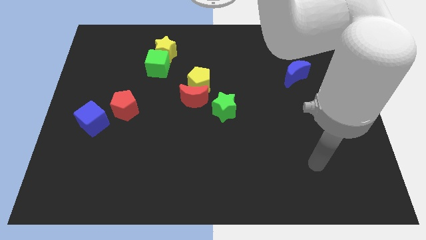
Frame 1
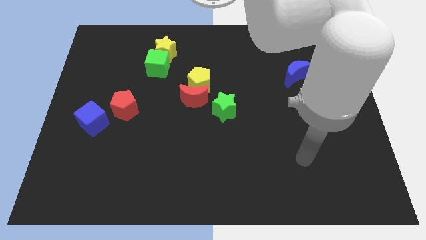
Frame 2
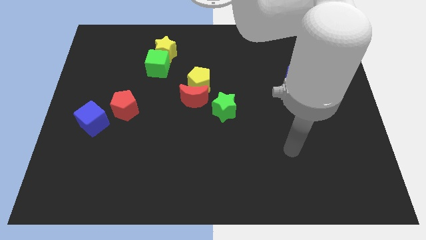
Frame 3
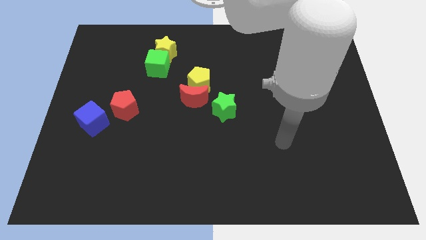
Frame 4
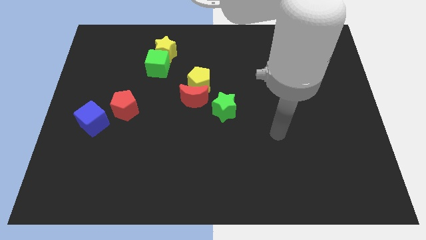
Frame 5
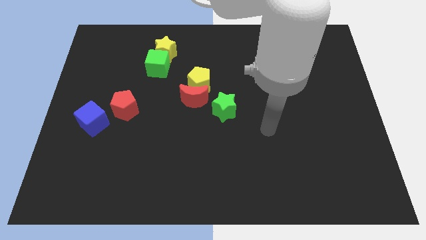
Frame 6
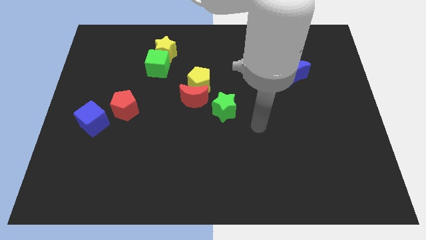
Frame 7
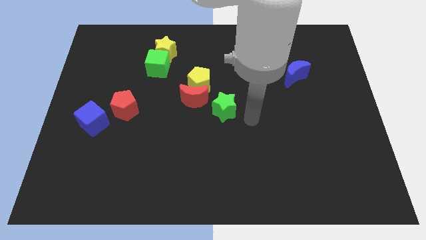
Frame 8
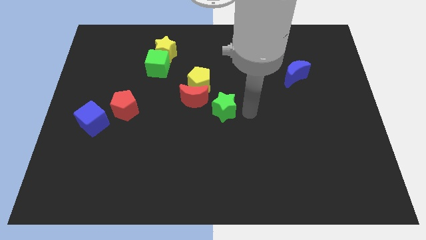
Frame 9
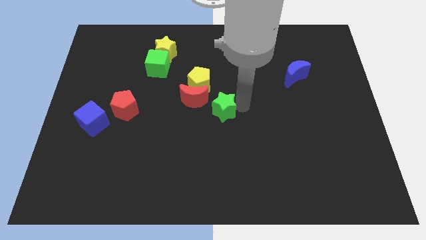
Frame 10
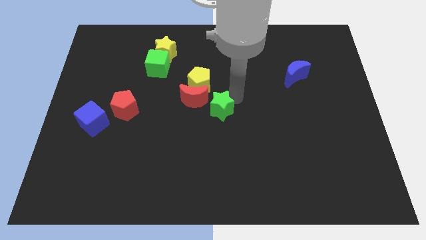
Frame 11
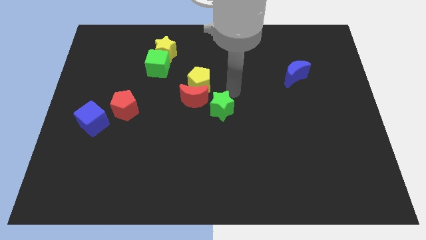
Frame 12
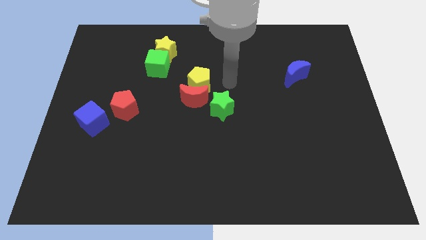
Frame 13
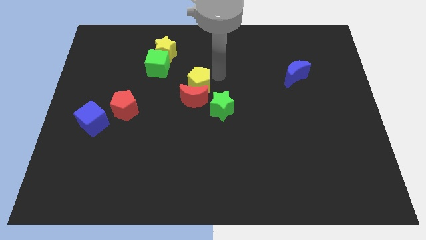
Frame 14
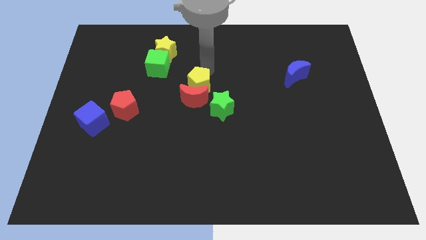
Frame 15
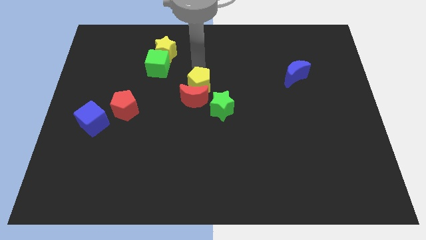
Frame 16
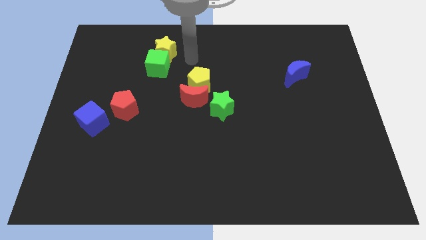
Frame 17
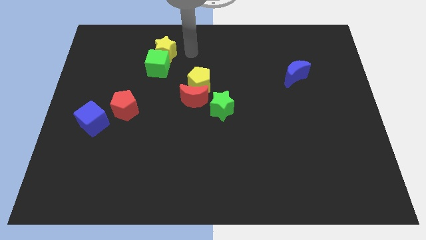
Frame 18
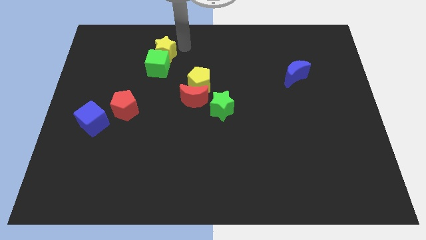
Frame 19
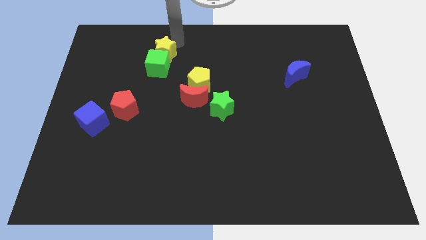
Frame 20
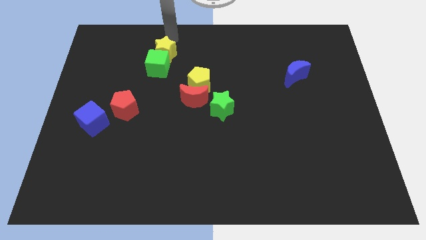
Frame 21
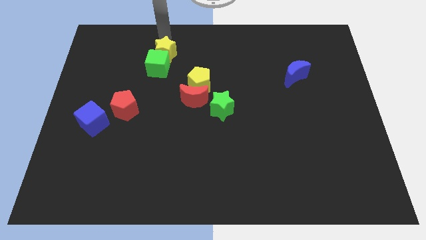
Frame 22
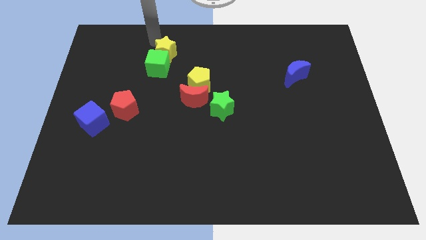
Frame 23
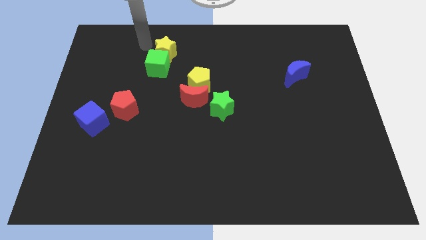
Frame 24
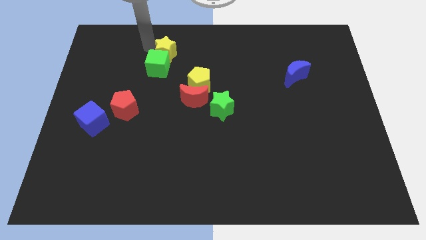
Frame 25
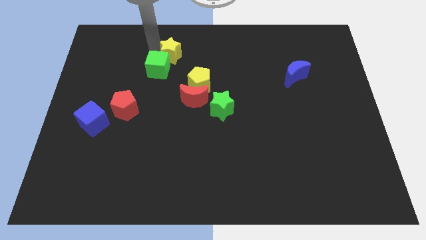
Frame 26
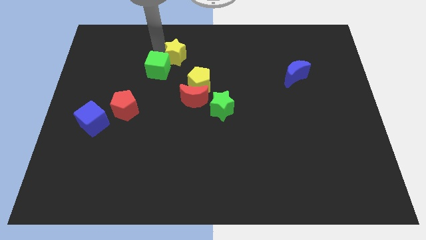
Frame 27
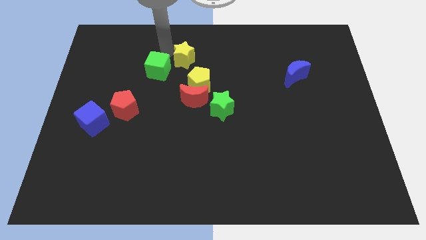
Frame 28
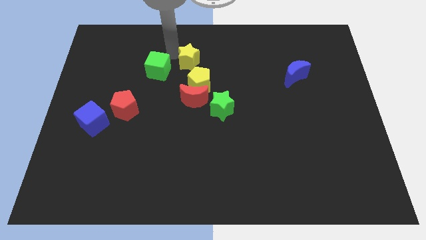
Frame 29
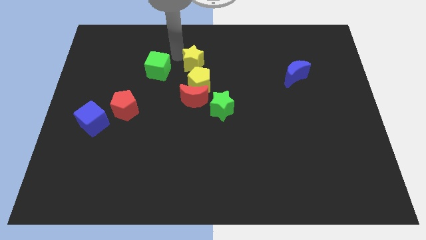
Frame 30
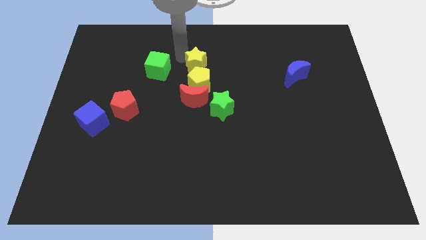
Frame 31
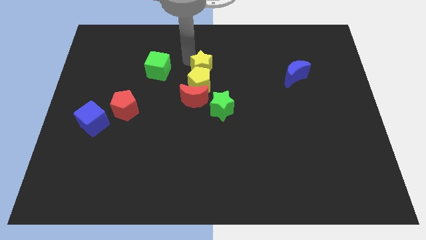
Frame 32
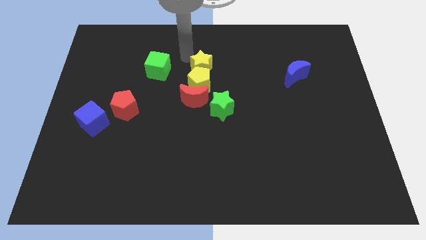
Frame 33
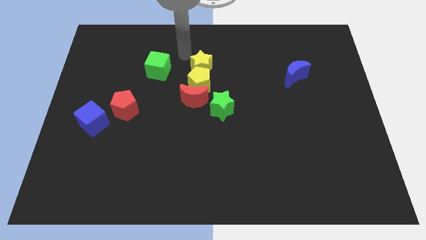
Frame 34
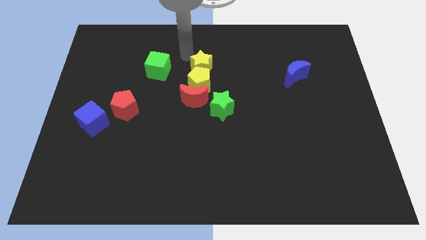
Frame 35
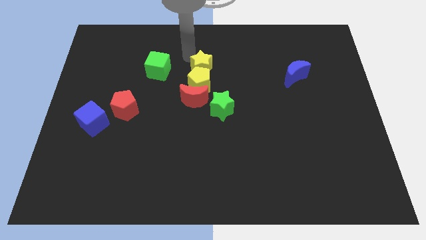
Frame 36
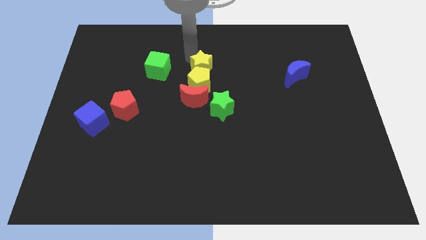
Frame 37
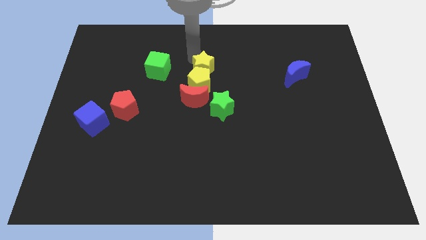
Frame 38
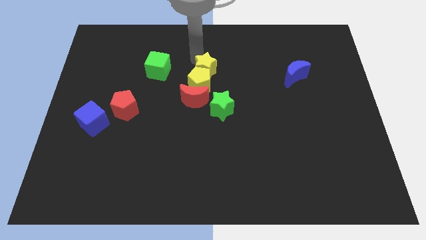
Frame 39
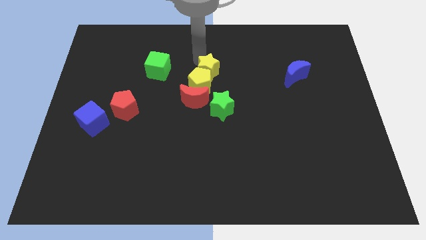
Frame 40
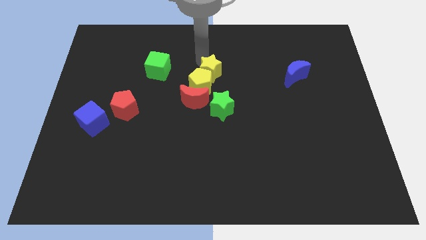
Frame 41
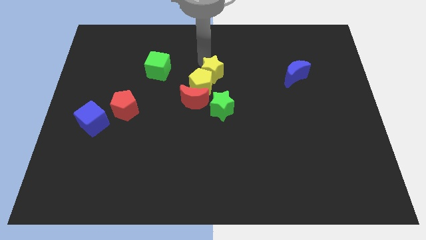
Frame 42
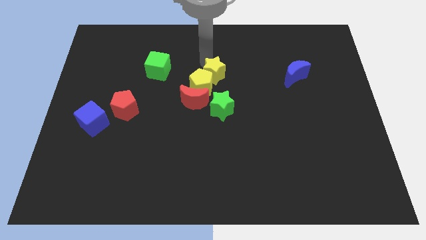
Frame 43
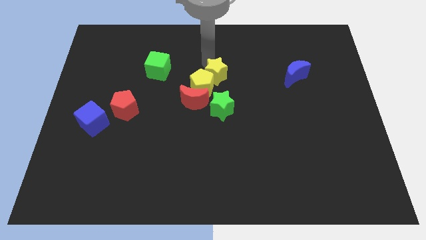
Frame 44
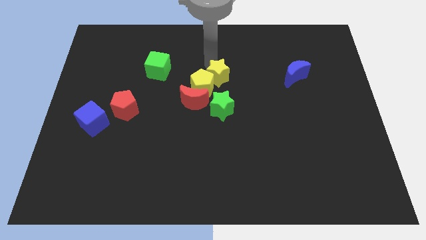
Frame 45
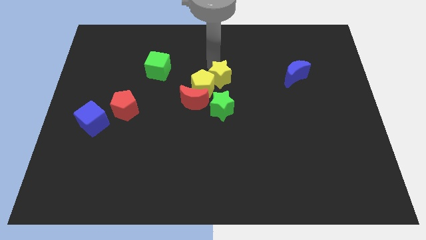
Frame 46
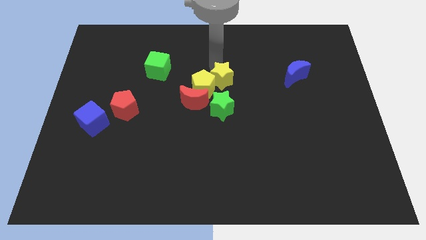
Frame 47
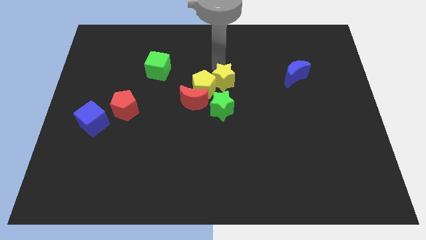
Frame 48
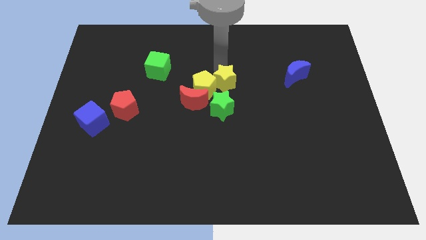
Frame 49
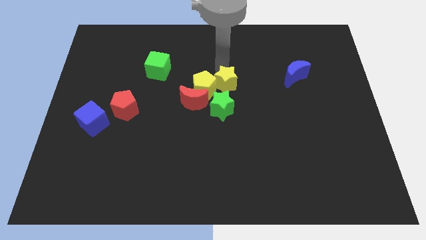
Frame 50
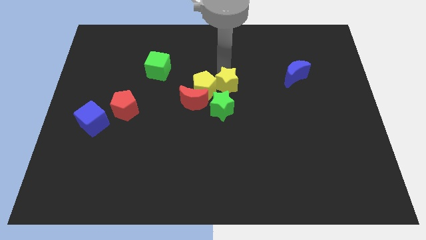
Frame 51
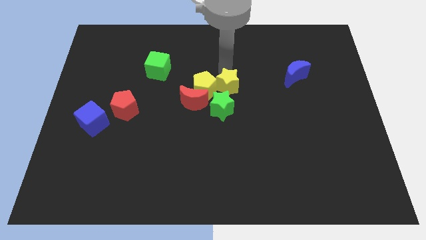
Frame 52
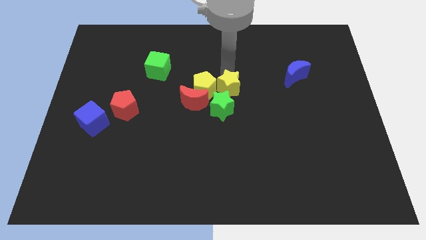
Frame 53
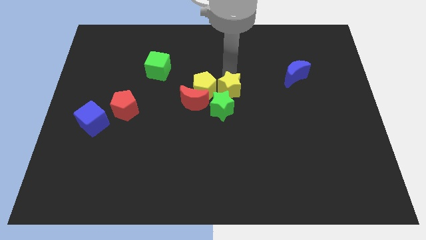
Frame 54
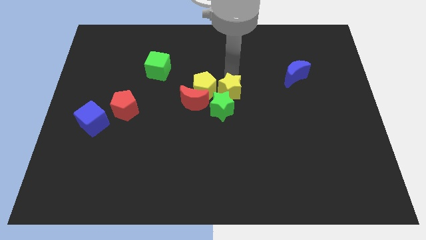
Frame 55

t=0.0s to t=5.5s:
slide the yellow star close to the green star

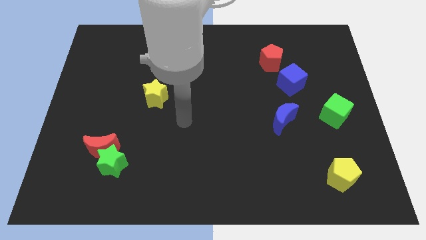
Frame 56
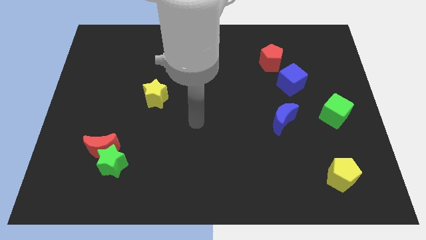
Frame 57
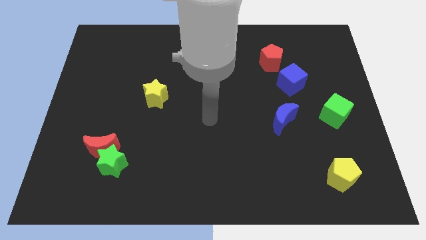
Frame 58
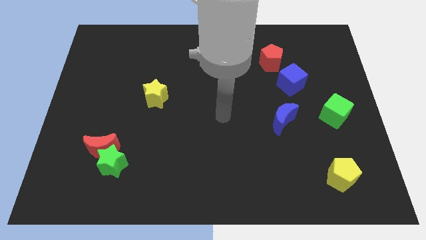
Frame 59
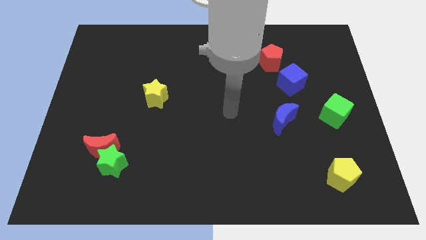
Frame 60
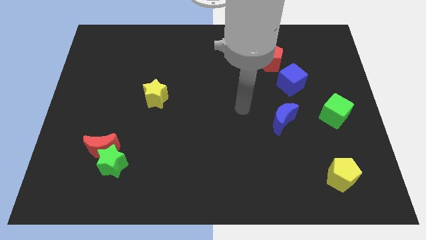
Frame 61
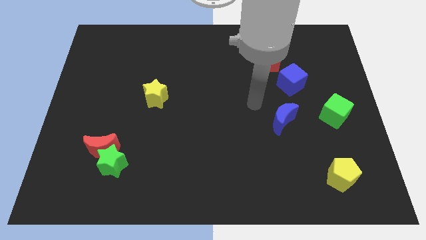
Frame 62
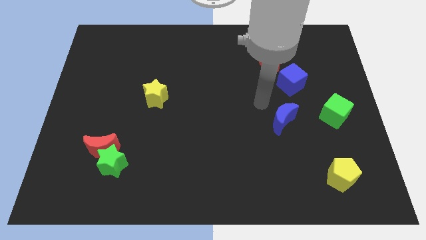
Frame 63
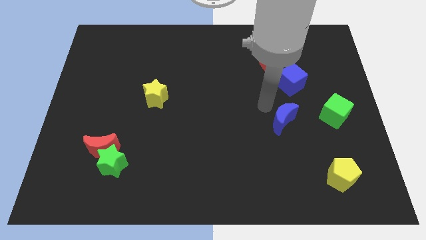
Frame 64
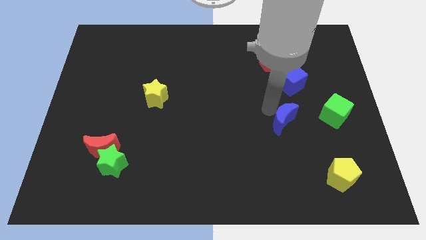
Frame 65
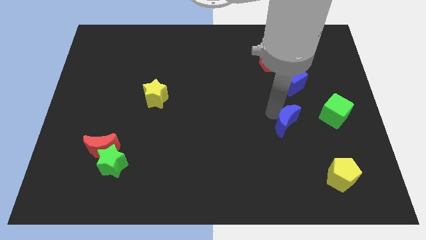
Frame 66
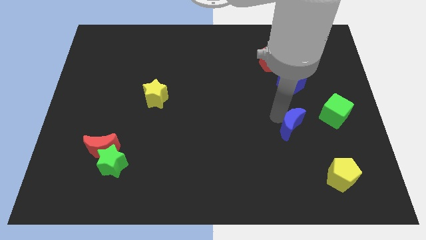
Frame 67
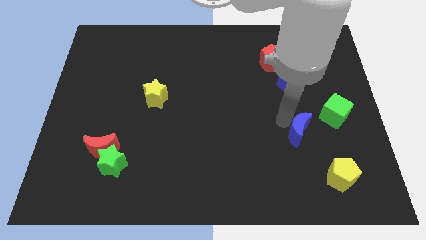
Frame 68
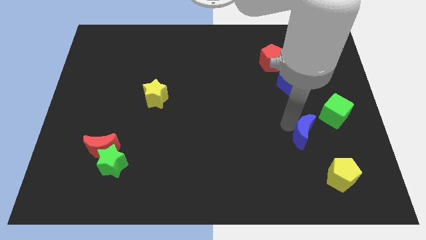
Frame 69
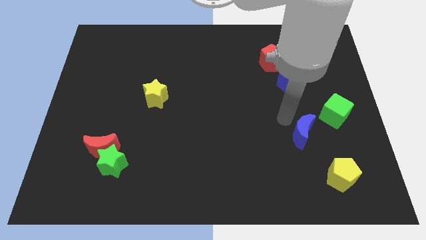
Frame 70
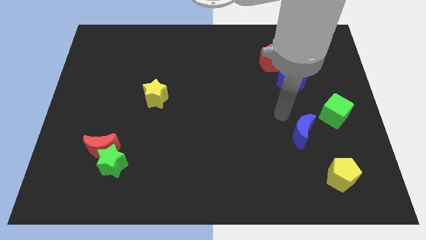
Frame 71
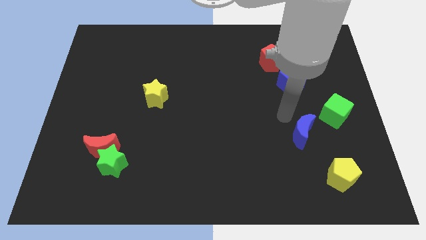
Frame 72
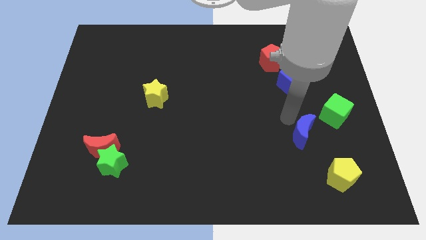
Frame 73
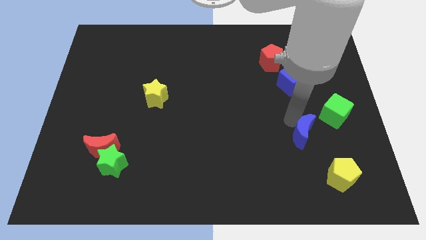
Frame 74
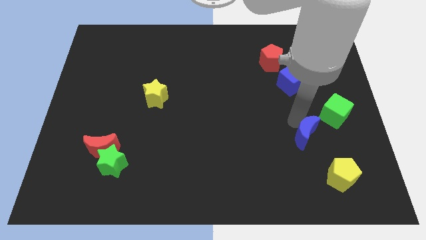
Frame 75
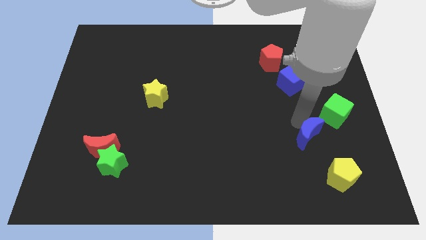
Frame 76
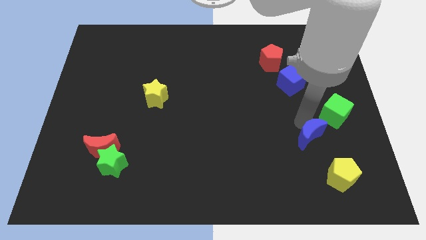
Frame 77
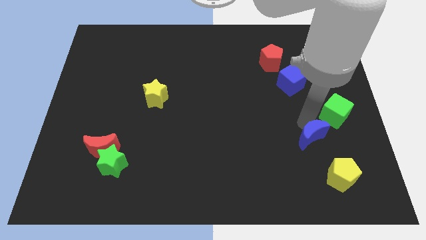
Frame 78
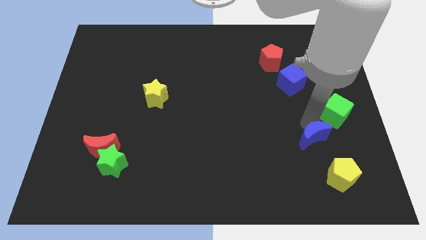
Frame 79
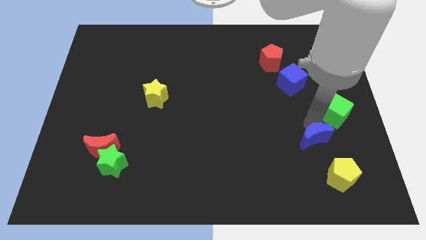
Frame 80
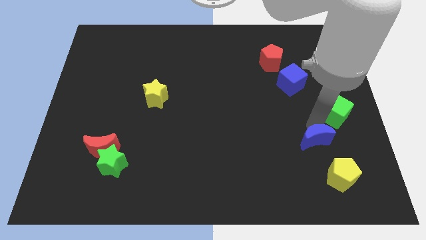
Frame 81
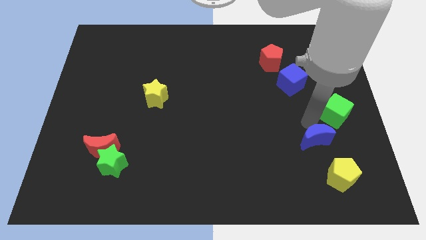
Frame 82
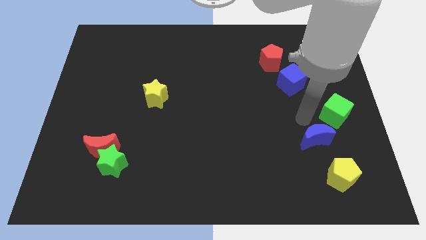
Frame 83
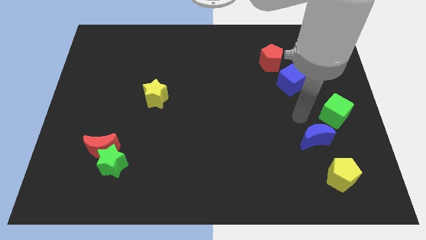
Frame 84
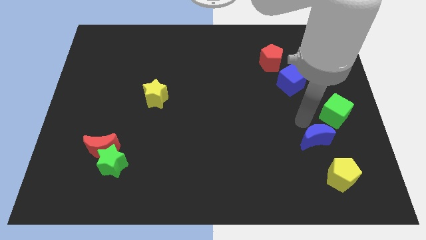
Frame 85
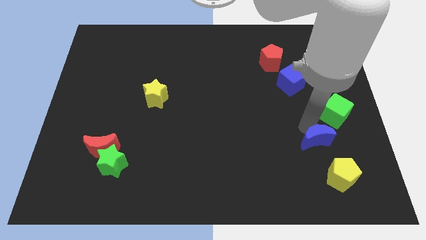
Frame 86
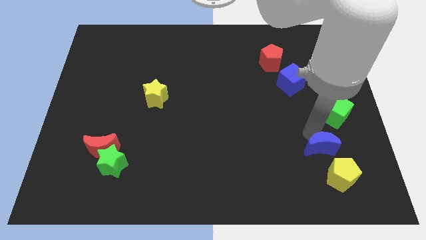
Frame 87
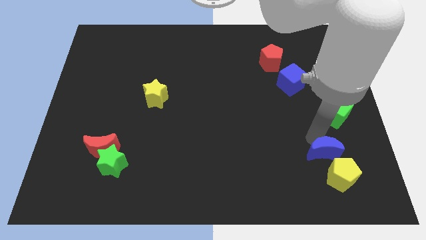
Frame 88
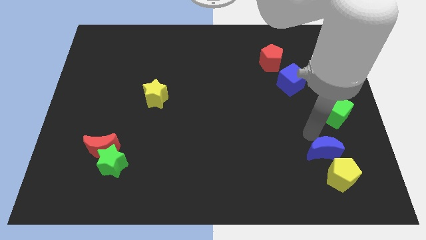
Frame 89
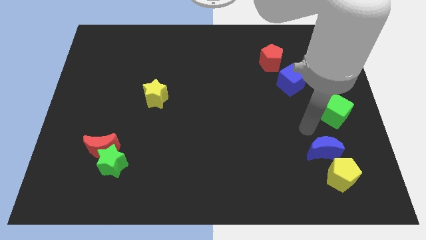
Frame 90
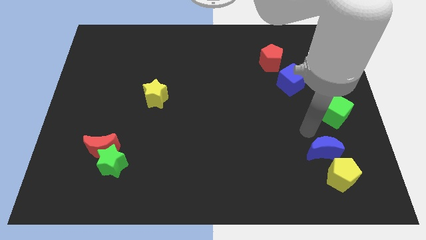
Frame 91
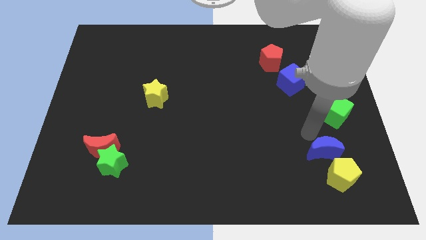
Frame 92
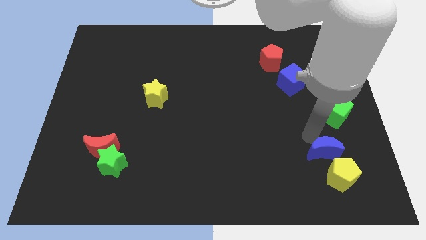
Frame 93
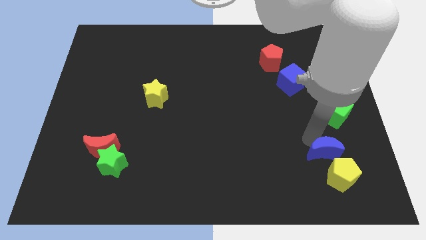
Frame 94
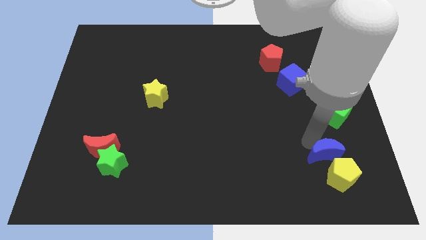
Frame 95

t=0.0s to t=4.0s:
slide the blue moon next to the yellow pentagon
